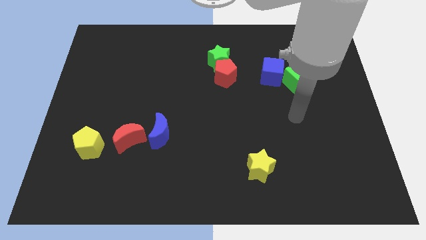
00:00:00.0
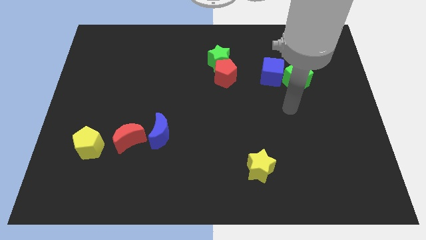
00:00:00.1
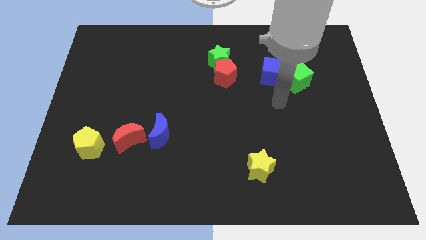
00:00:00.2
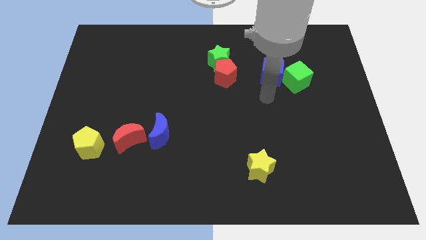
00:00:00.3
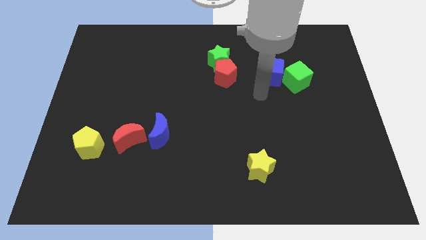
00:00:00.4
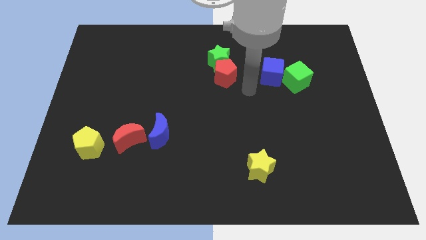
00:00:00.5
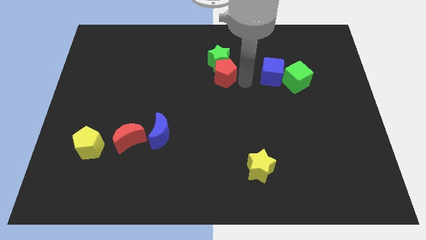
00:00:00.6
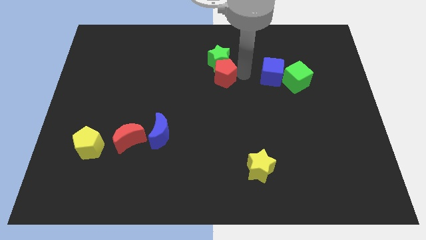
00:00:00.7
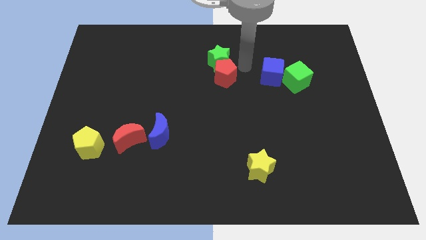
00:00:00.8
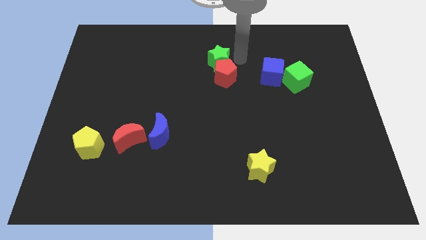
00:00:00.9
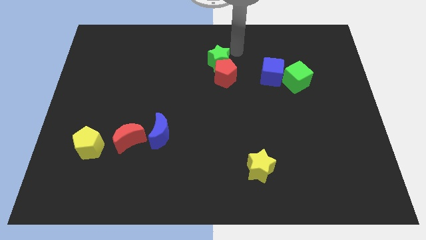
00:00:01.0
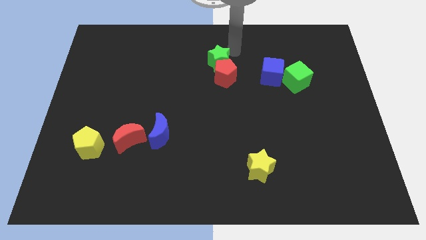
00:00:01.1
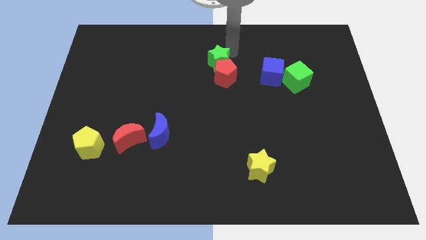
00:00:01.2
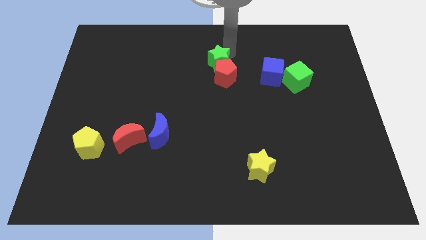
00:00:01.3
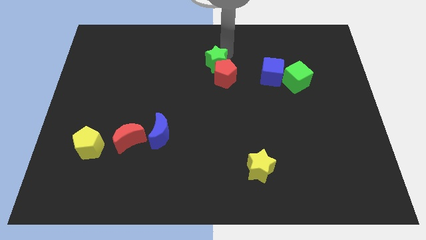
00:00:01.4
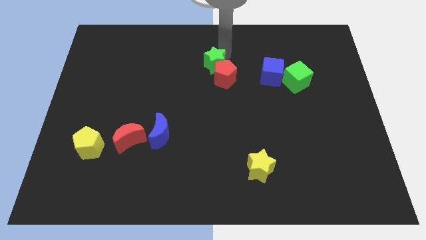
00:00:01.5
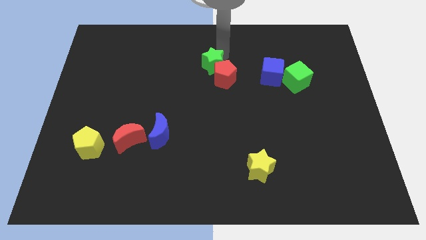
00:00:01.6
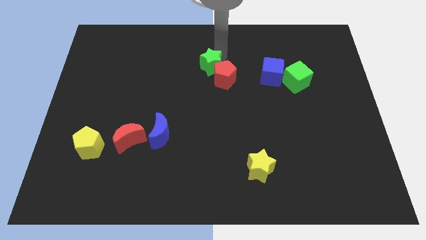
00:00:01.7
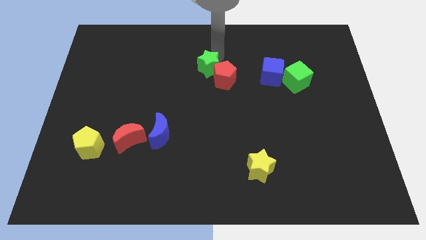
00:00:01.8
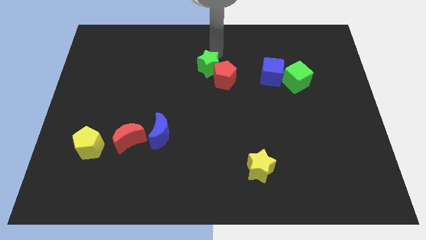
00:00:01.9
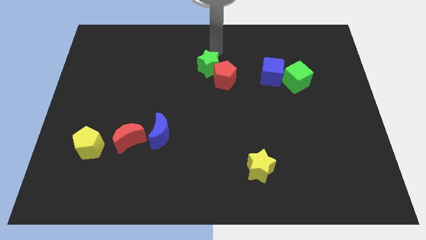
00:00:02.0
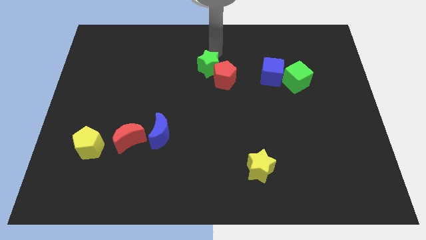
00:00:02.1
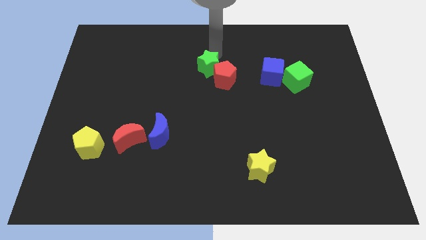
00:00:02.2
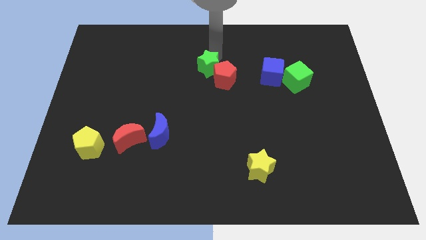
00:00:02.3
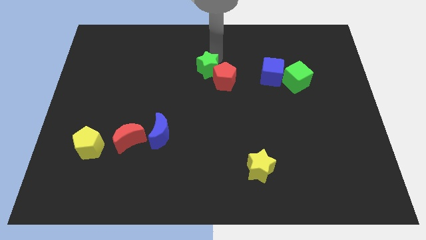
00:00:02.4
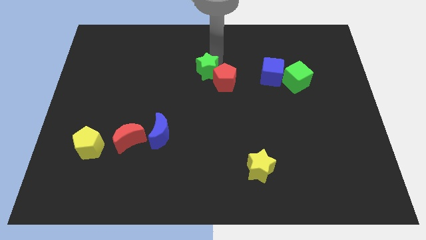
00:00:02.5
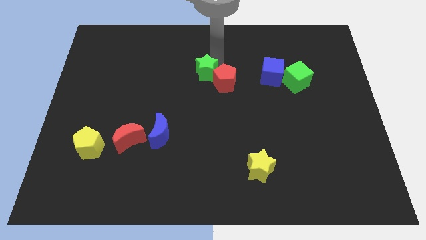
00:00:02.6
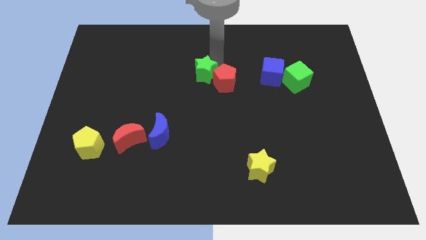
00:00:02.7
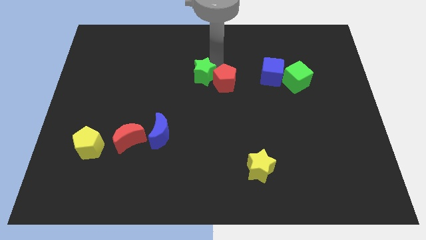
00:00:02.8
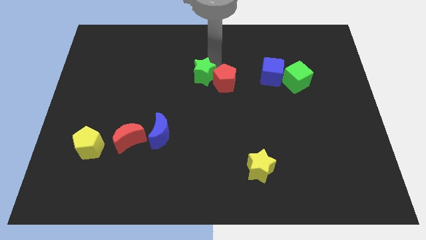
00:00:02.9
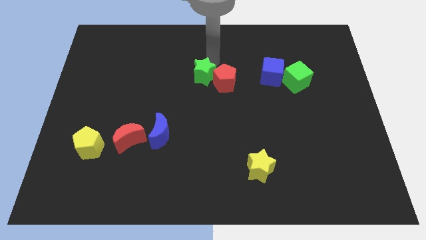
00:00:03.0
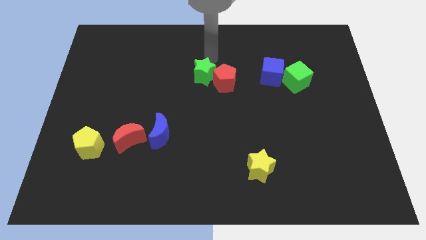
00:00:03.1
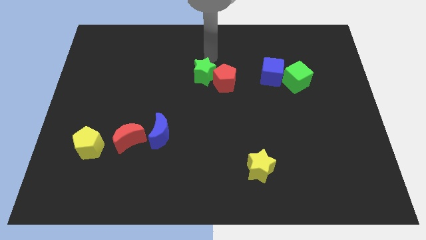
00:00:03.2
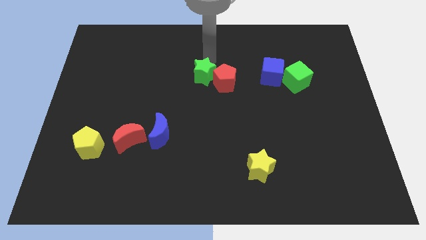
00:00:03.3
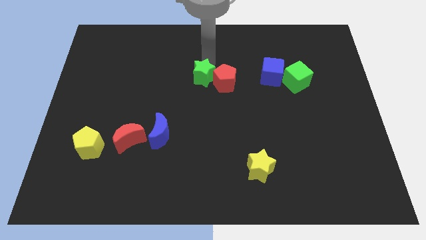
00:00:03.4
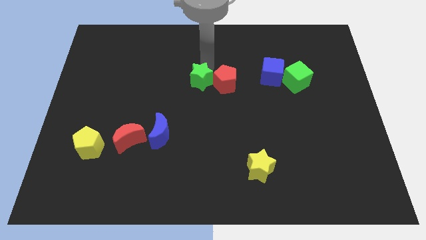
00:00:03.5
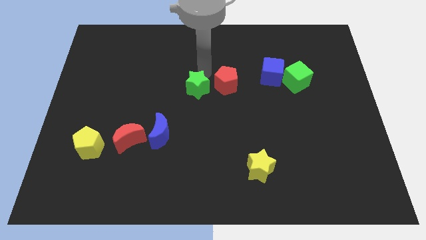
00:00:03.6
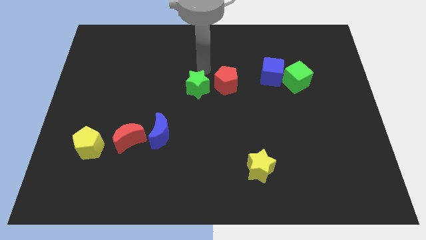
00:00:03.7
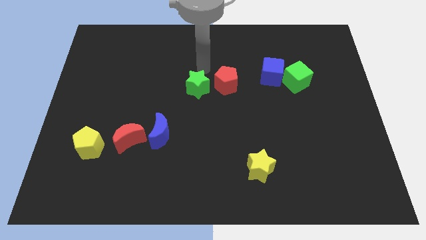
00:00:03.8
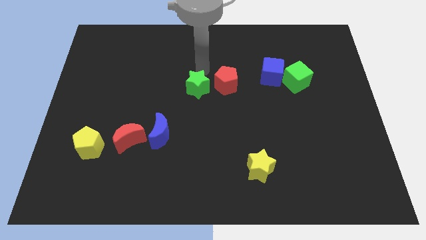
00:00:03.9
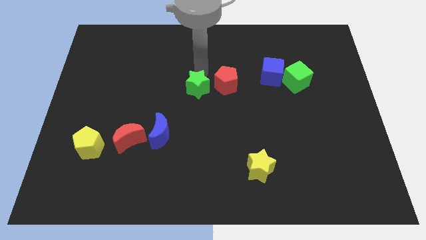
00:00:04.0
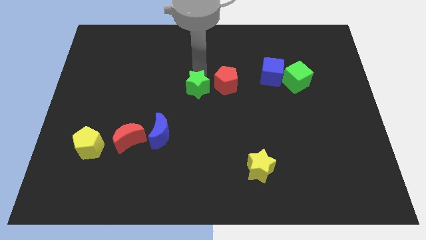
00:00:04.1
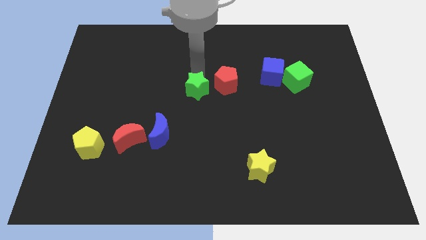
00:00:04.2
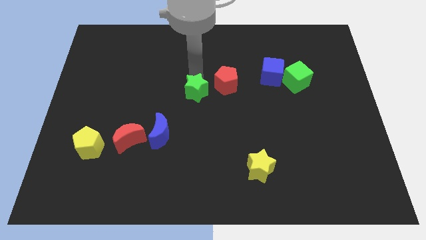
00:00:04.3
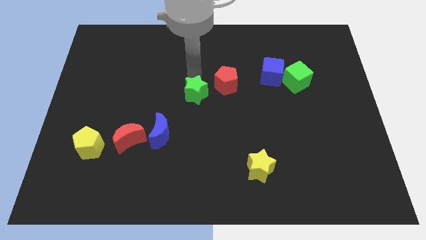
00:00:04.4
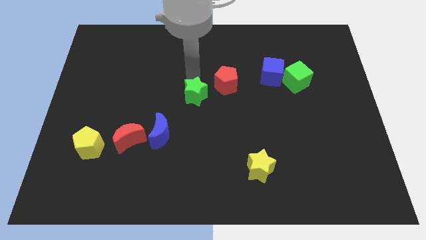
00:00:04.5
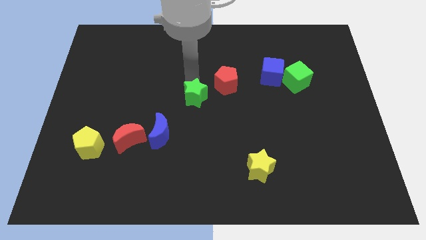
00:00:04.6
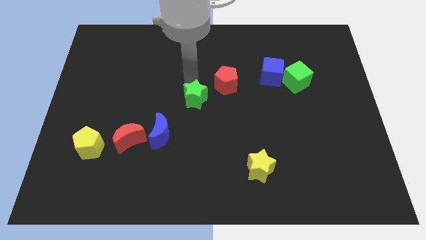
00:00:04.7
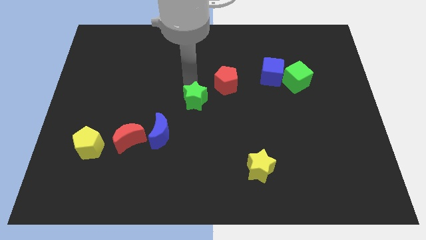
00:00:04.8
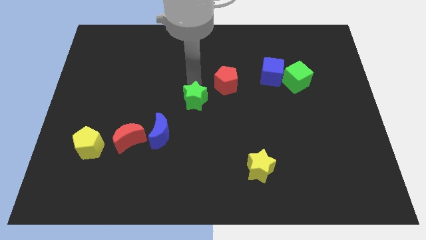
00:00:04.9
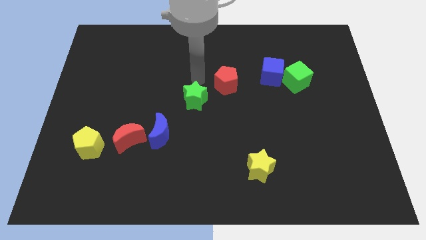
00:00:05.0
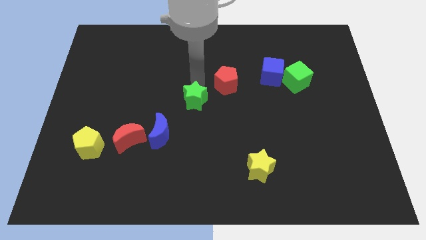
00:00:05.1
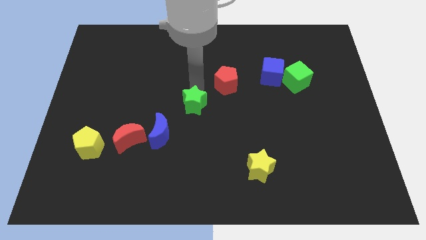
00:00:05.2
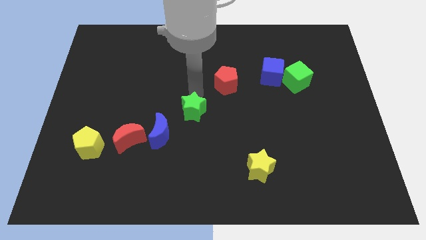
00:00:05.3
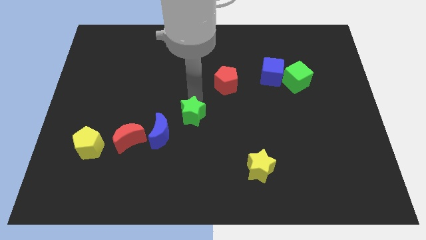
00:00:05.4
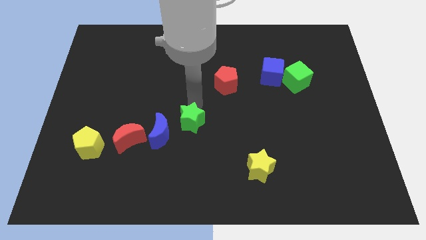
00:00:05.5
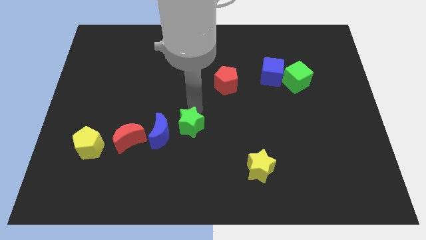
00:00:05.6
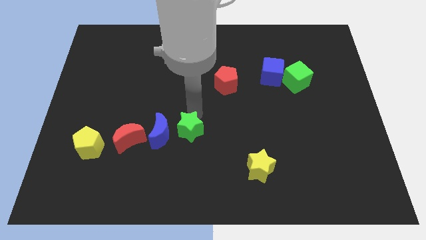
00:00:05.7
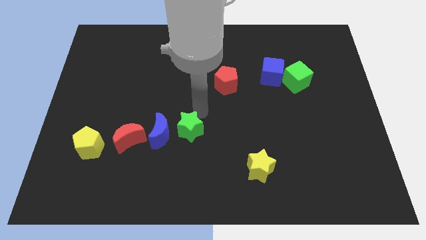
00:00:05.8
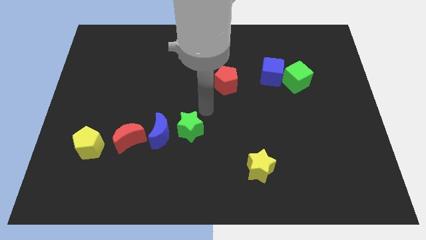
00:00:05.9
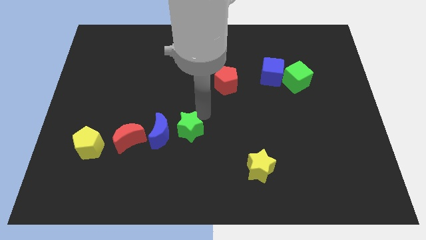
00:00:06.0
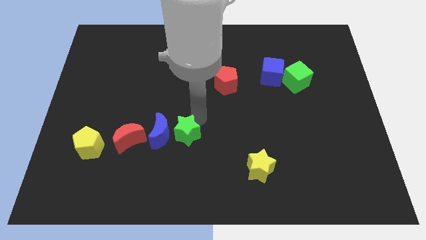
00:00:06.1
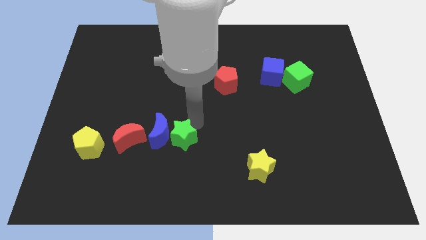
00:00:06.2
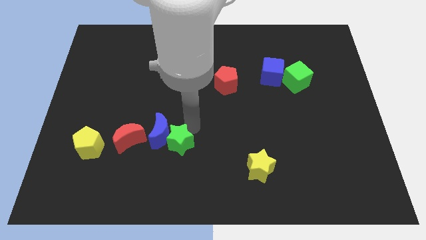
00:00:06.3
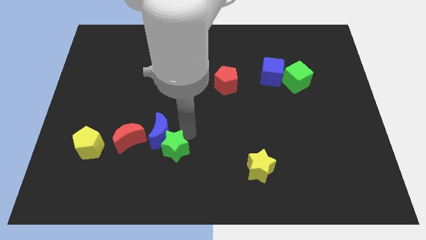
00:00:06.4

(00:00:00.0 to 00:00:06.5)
slide the green star to the bottom of the blue moon
